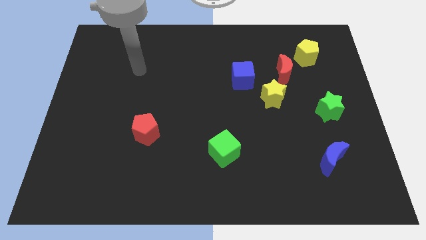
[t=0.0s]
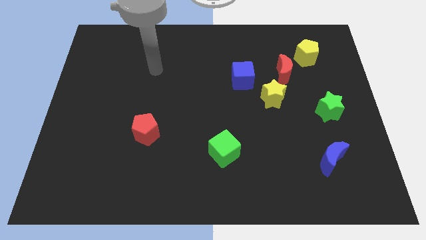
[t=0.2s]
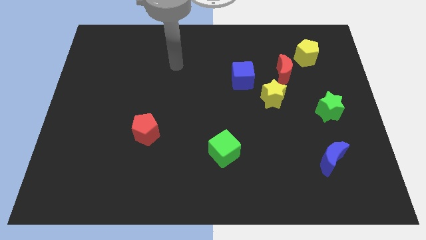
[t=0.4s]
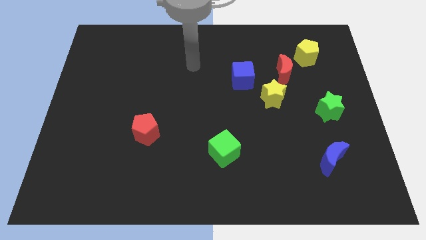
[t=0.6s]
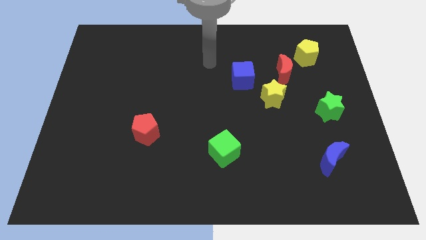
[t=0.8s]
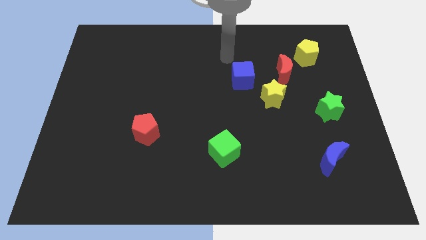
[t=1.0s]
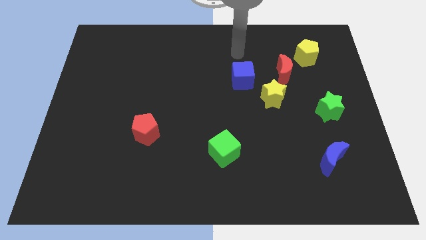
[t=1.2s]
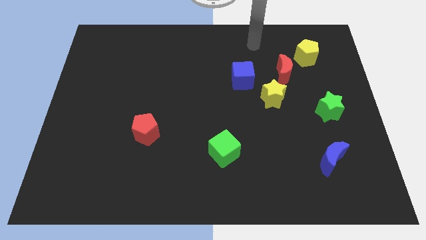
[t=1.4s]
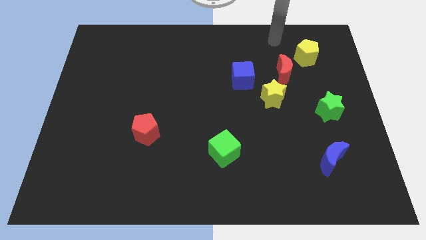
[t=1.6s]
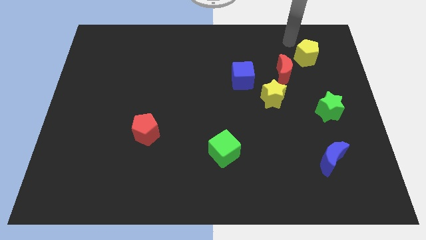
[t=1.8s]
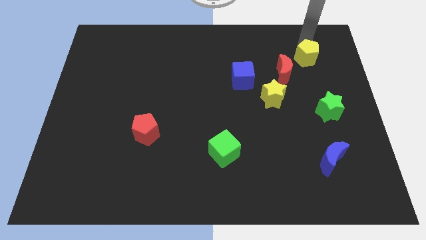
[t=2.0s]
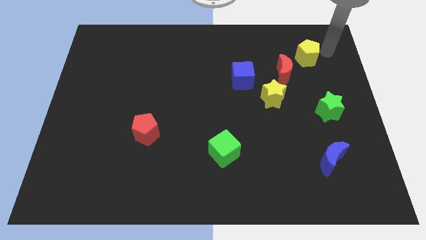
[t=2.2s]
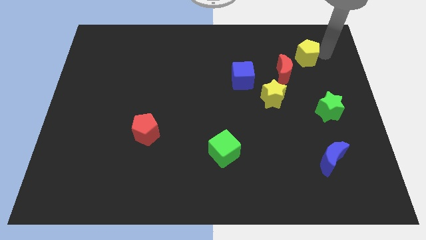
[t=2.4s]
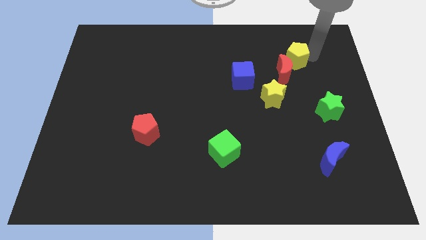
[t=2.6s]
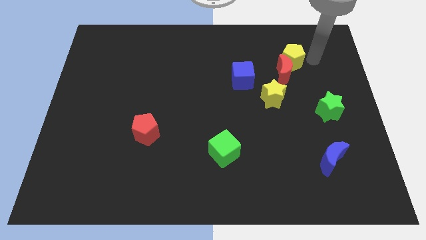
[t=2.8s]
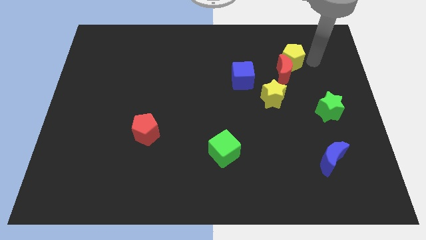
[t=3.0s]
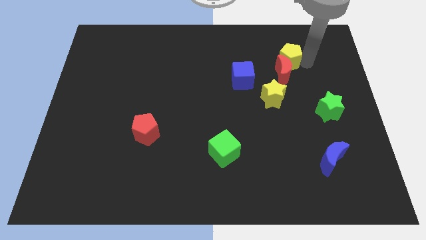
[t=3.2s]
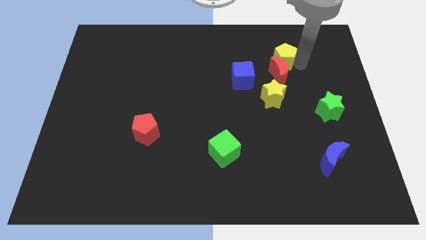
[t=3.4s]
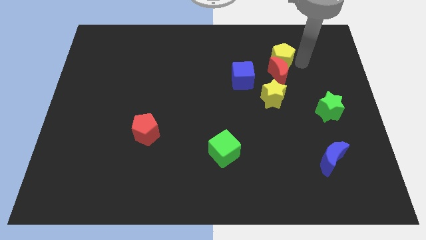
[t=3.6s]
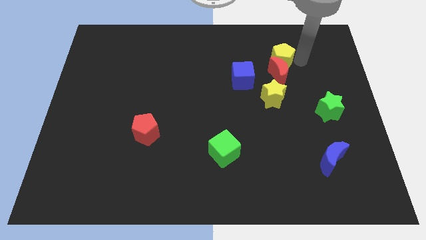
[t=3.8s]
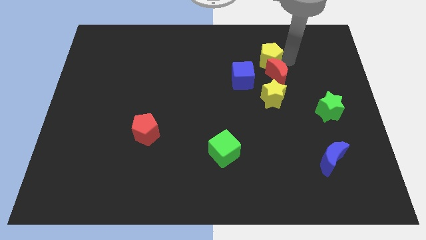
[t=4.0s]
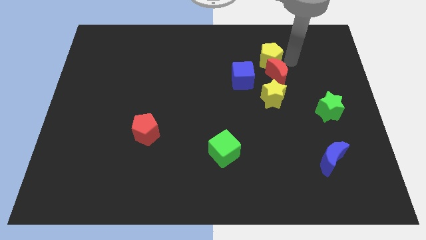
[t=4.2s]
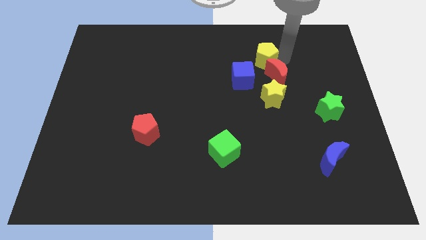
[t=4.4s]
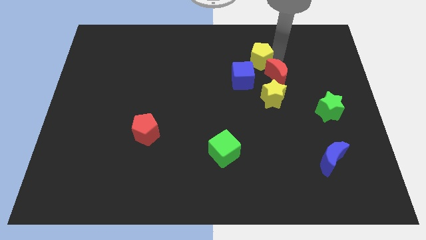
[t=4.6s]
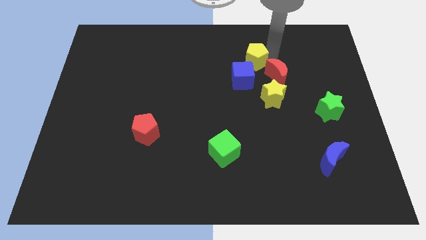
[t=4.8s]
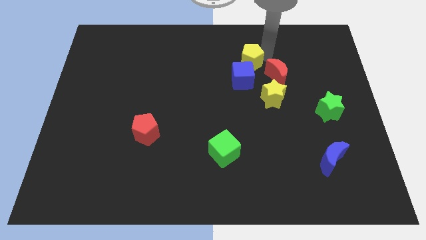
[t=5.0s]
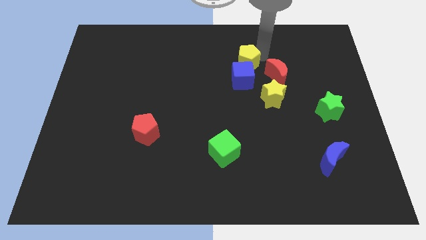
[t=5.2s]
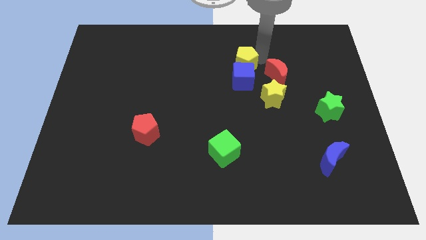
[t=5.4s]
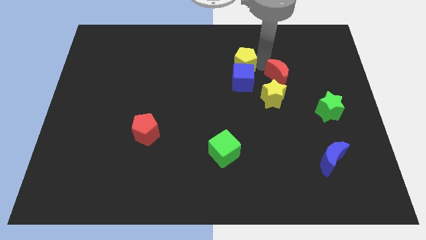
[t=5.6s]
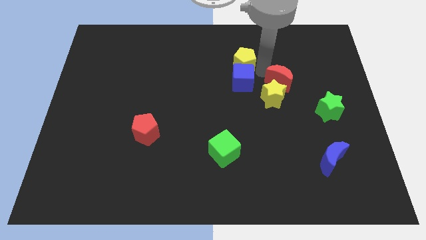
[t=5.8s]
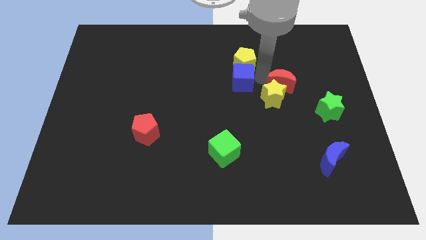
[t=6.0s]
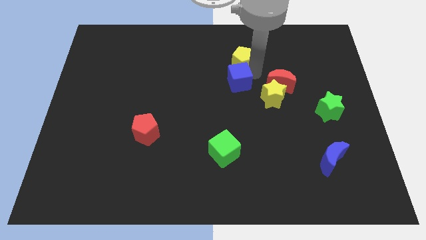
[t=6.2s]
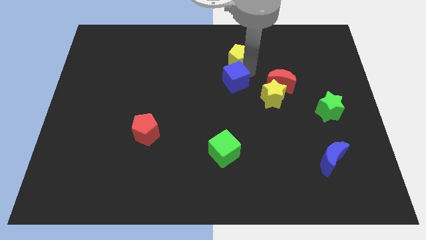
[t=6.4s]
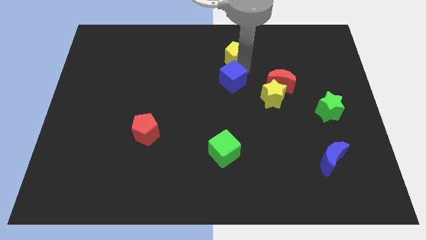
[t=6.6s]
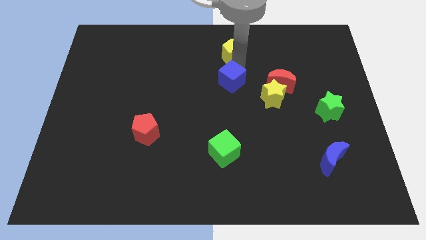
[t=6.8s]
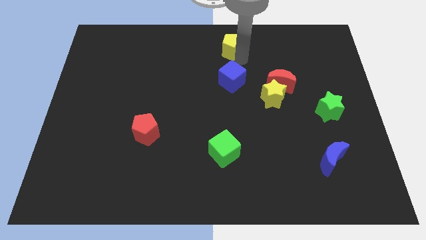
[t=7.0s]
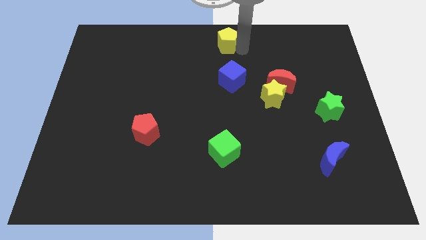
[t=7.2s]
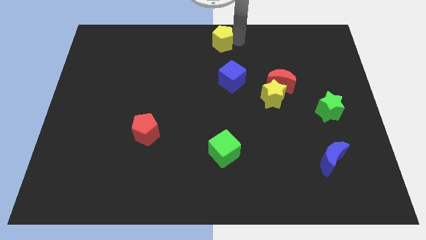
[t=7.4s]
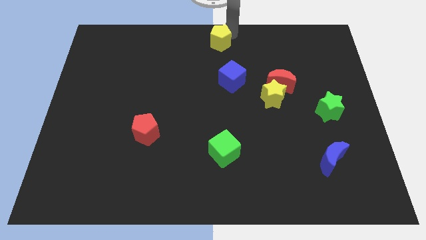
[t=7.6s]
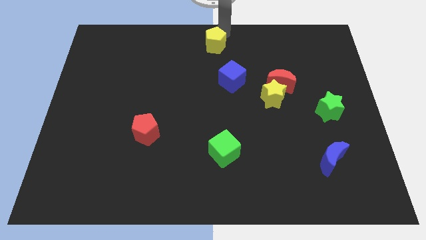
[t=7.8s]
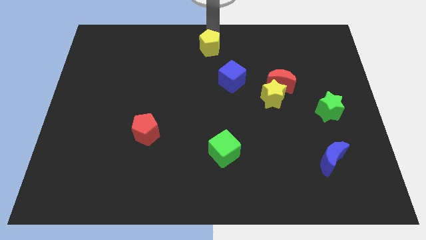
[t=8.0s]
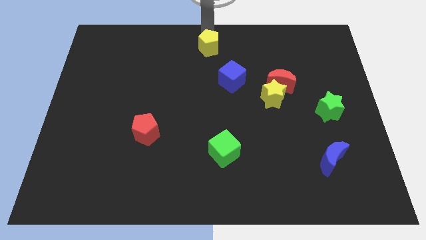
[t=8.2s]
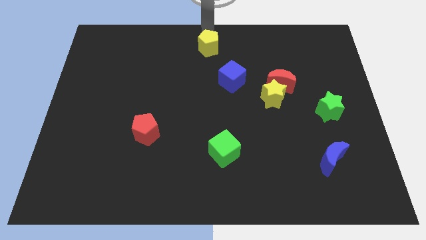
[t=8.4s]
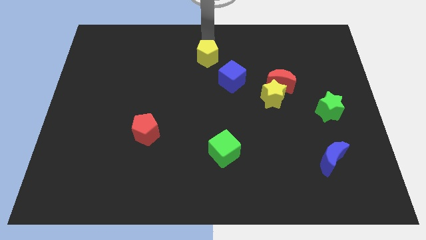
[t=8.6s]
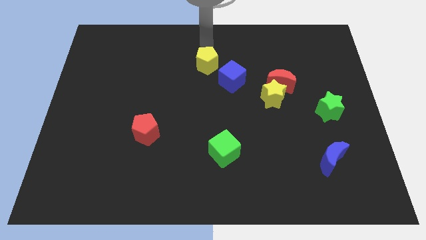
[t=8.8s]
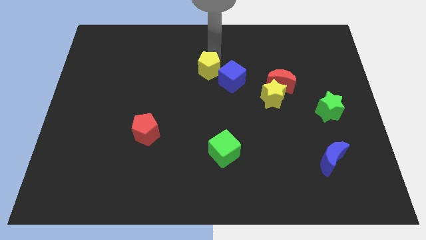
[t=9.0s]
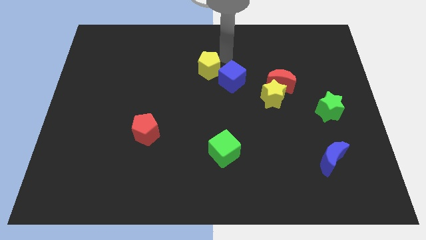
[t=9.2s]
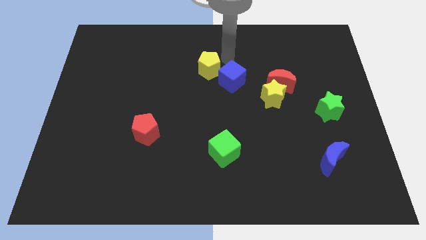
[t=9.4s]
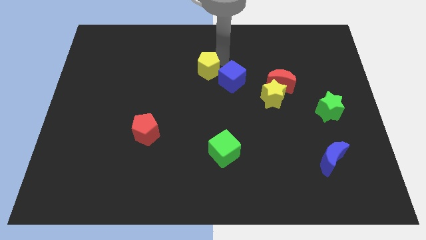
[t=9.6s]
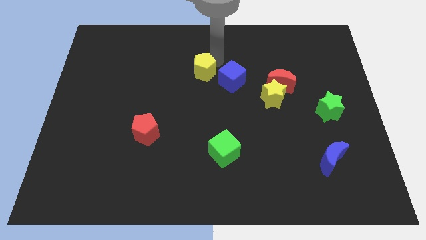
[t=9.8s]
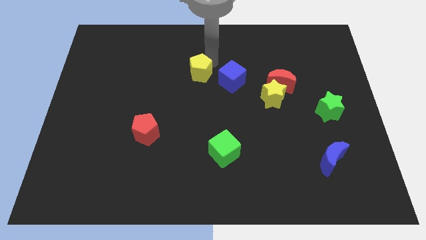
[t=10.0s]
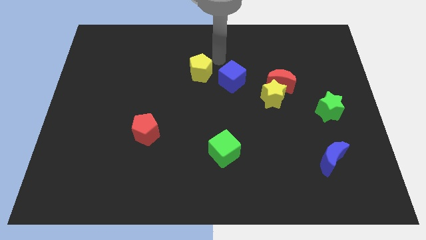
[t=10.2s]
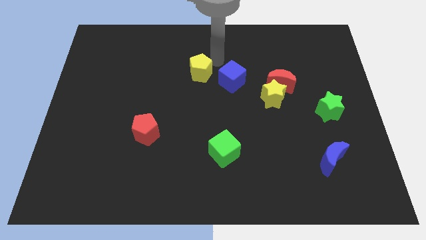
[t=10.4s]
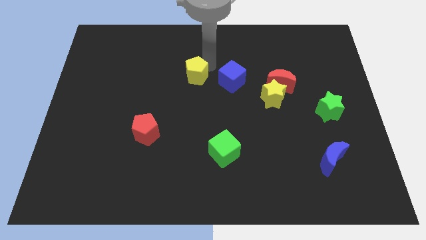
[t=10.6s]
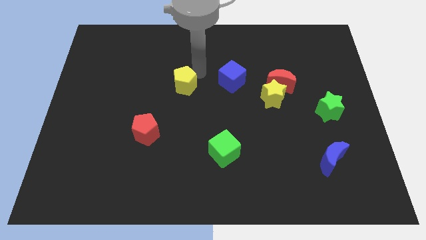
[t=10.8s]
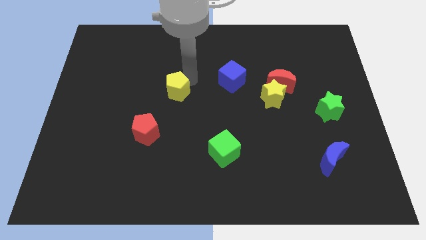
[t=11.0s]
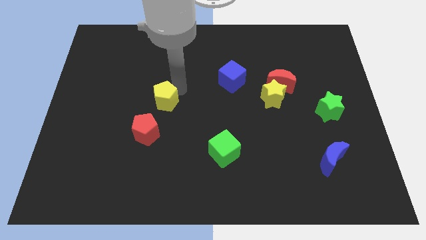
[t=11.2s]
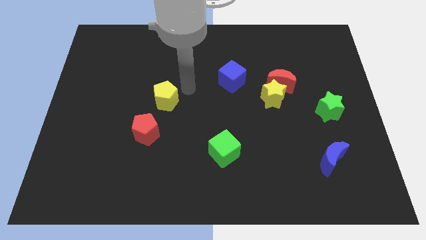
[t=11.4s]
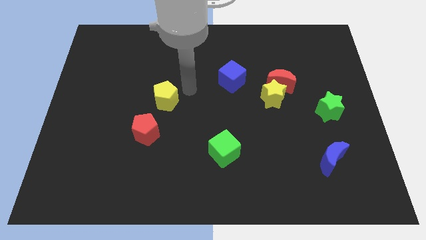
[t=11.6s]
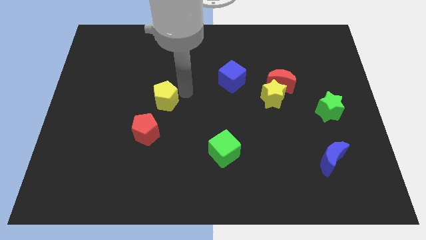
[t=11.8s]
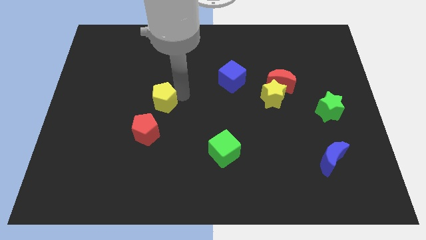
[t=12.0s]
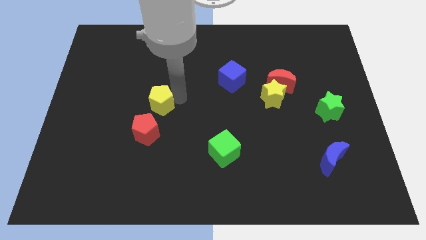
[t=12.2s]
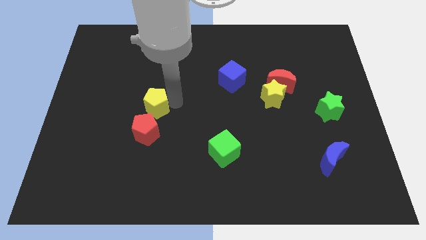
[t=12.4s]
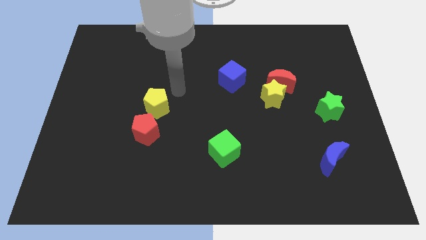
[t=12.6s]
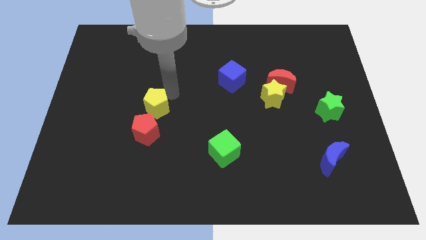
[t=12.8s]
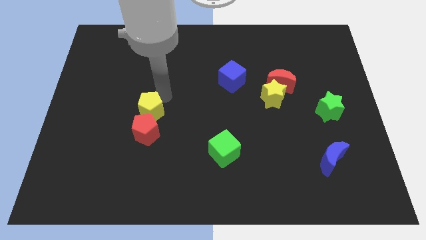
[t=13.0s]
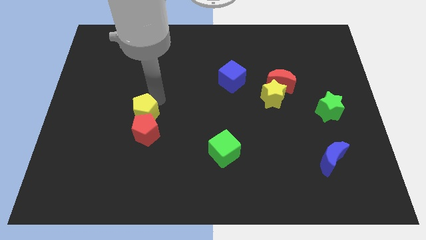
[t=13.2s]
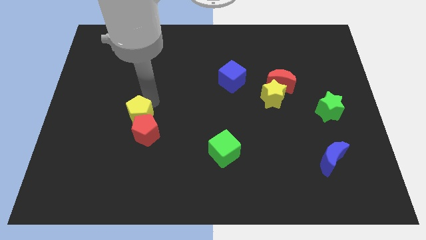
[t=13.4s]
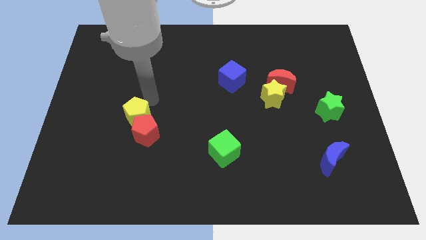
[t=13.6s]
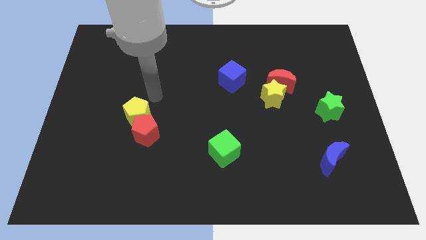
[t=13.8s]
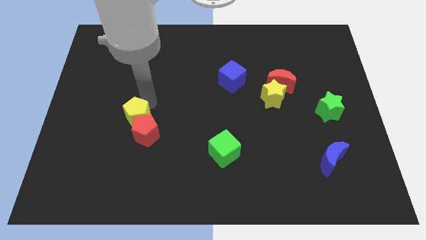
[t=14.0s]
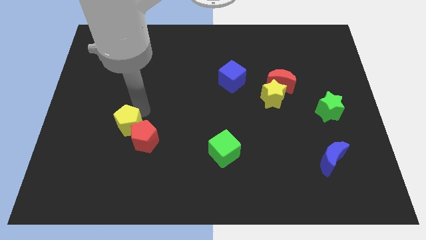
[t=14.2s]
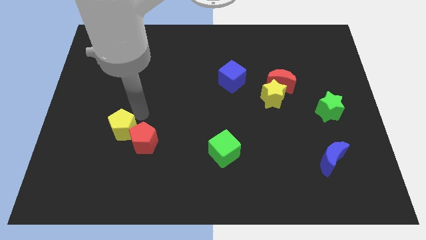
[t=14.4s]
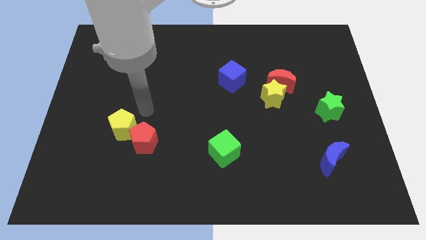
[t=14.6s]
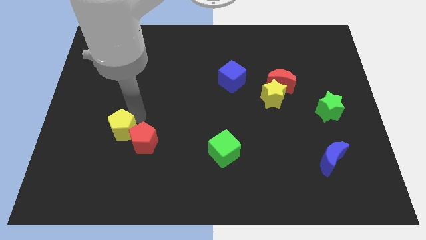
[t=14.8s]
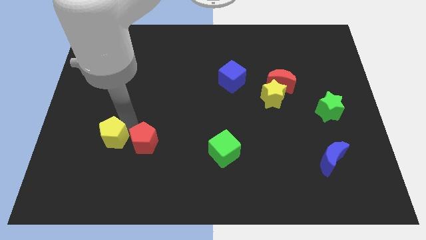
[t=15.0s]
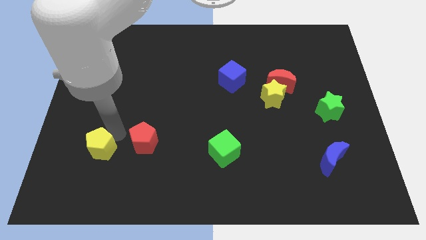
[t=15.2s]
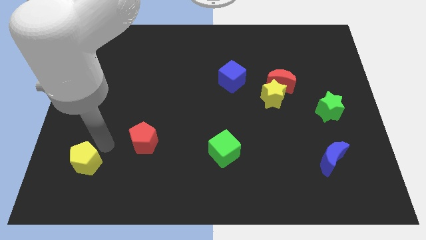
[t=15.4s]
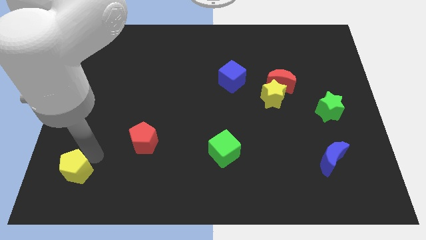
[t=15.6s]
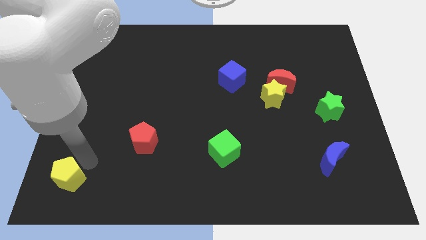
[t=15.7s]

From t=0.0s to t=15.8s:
slide the yellow pentagon to the bottom left of the board
